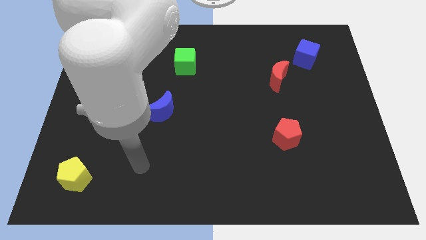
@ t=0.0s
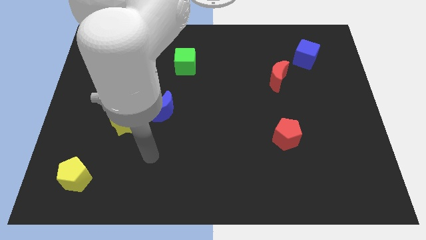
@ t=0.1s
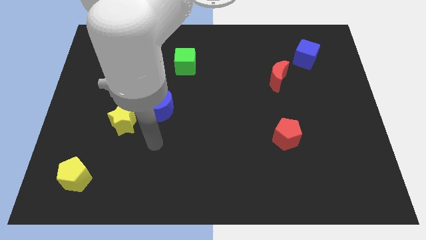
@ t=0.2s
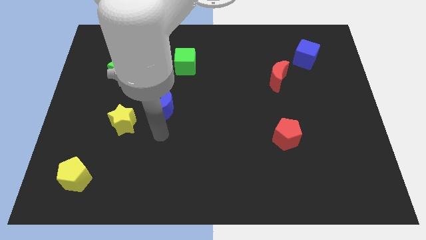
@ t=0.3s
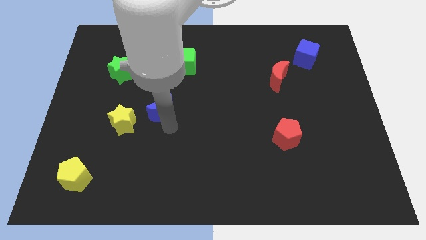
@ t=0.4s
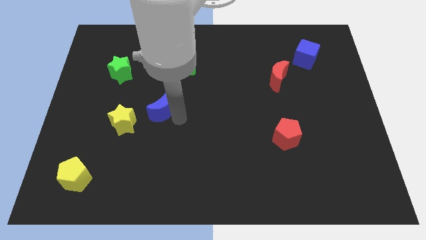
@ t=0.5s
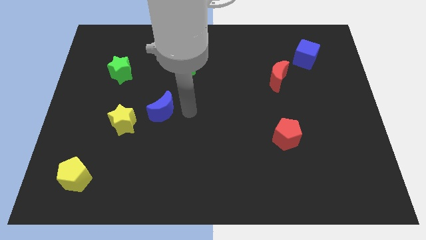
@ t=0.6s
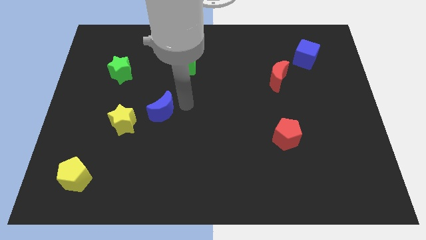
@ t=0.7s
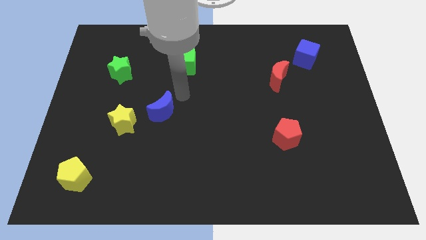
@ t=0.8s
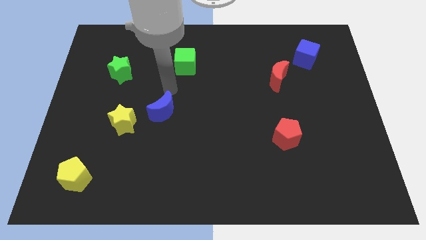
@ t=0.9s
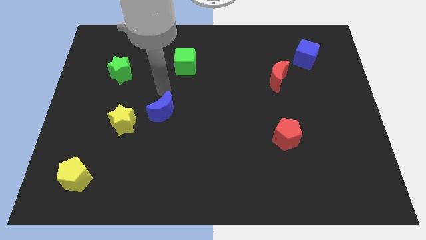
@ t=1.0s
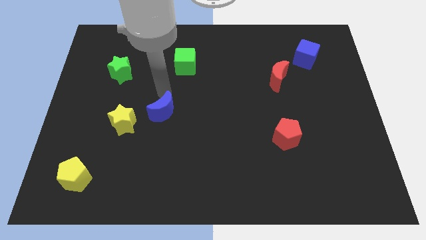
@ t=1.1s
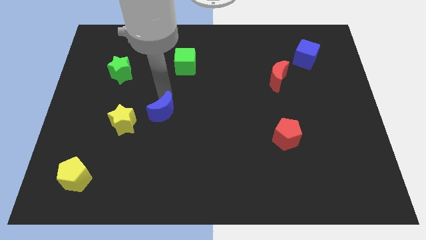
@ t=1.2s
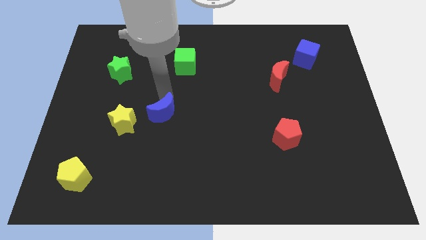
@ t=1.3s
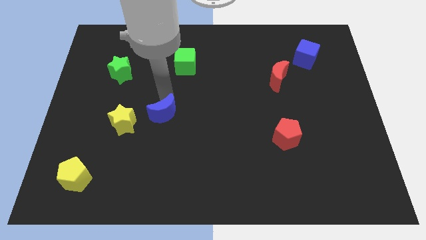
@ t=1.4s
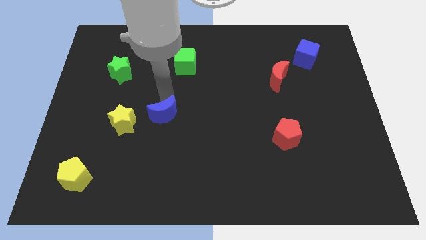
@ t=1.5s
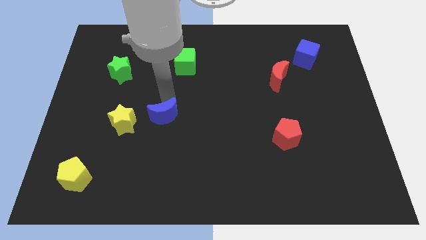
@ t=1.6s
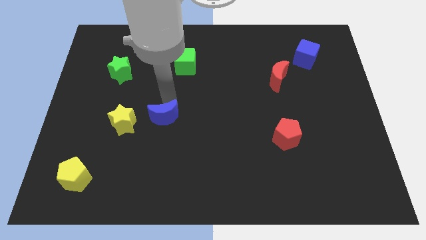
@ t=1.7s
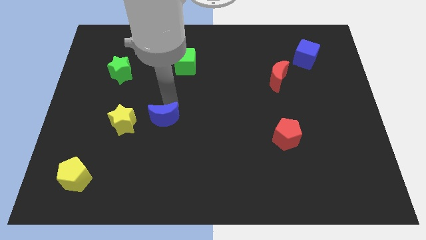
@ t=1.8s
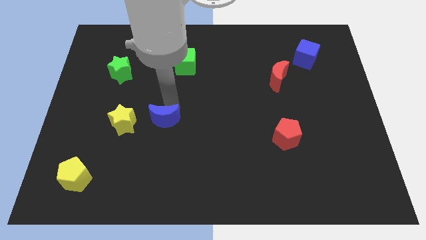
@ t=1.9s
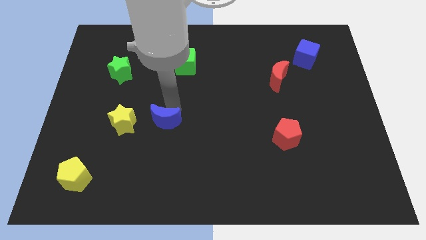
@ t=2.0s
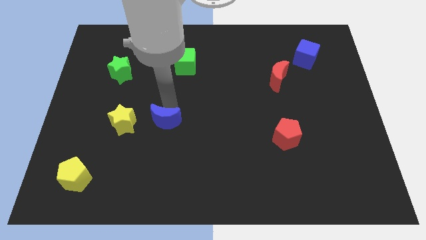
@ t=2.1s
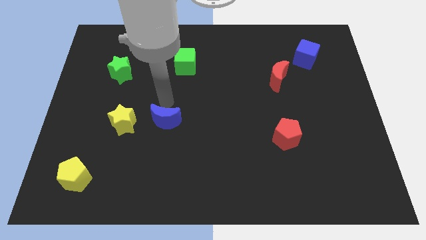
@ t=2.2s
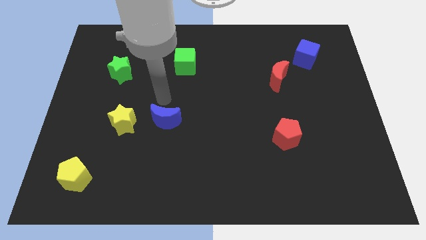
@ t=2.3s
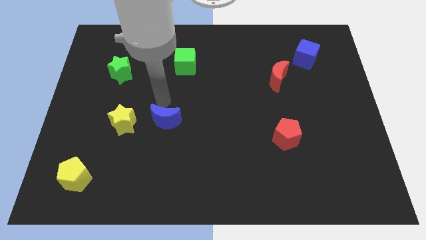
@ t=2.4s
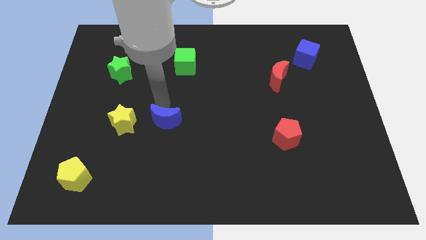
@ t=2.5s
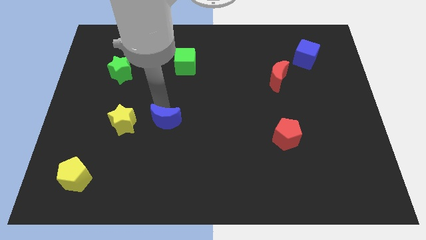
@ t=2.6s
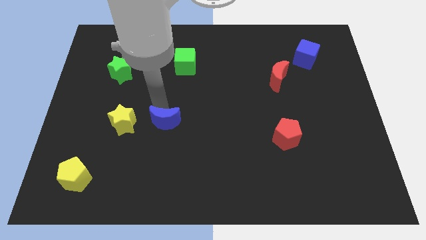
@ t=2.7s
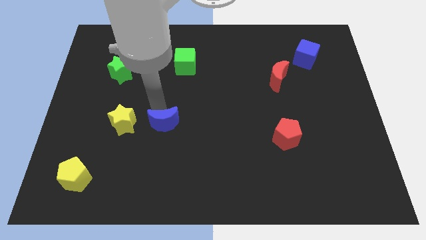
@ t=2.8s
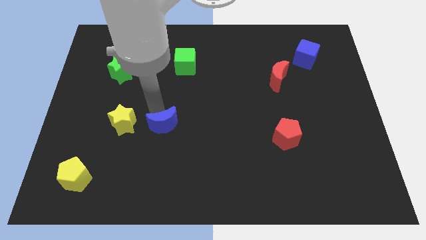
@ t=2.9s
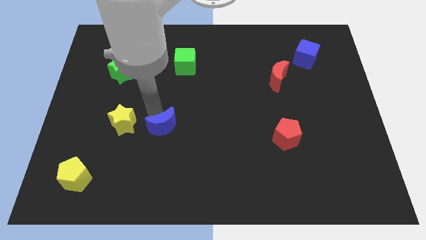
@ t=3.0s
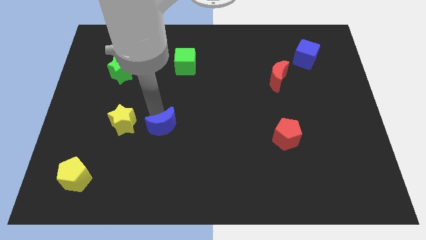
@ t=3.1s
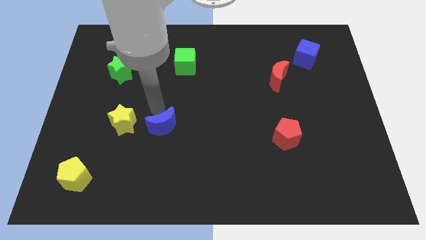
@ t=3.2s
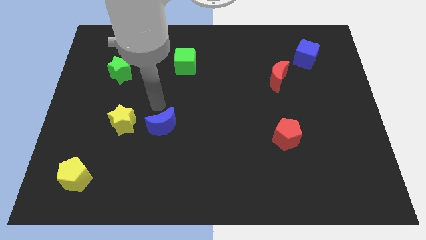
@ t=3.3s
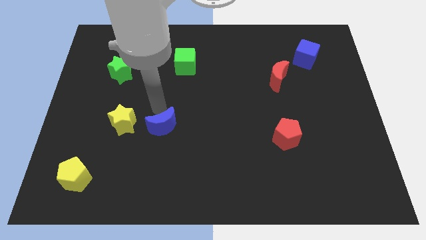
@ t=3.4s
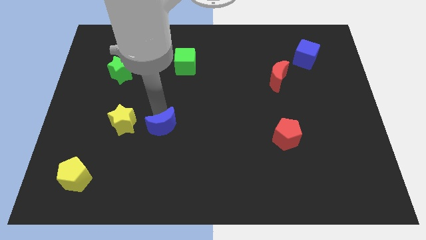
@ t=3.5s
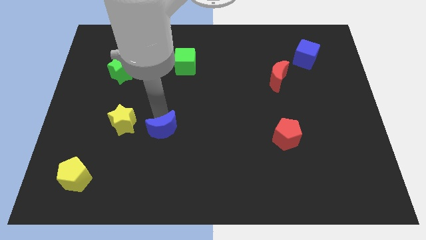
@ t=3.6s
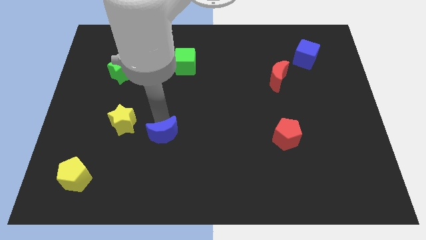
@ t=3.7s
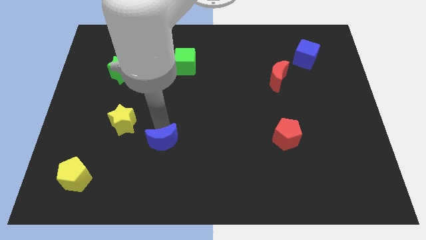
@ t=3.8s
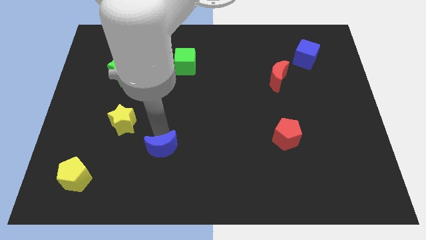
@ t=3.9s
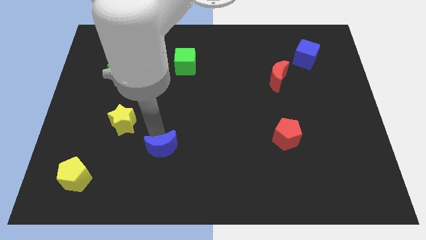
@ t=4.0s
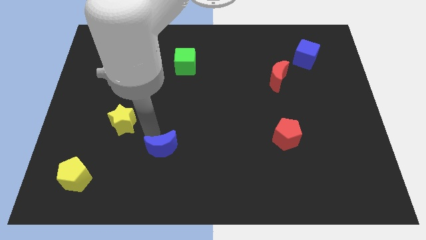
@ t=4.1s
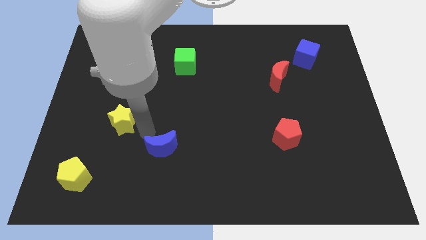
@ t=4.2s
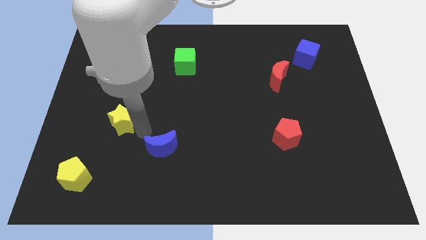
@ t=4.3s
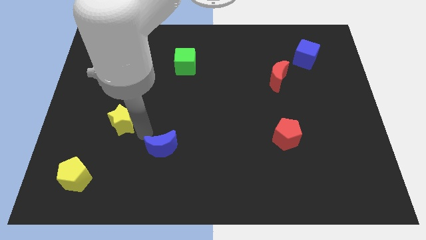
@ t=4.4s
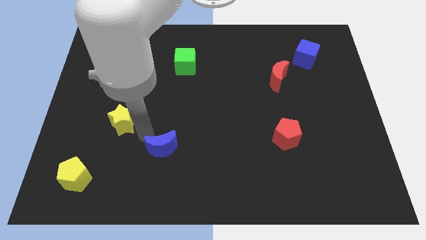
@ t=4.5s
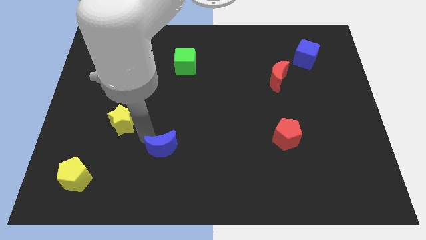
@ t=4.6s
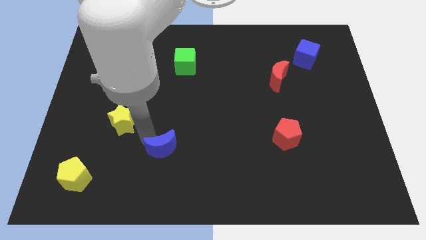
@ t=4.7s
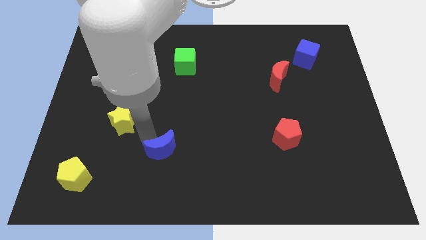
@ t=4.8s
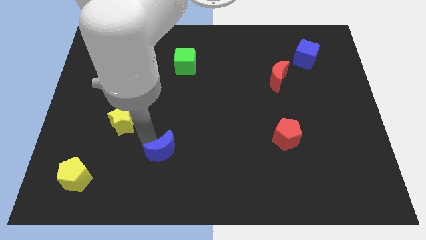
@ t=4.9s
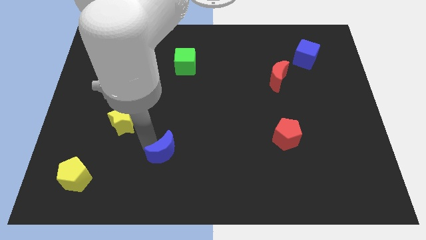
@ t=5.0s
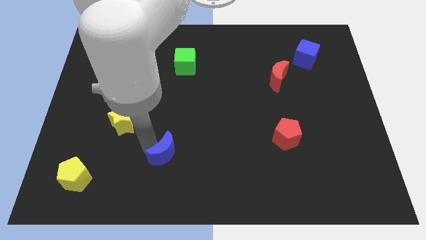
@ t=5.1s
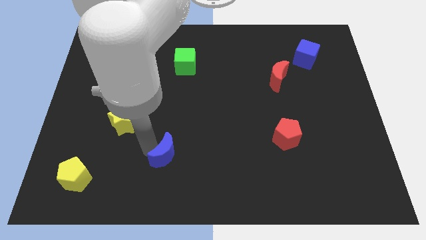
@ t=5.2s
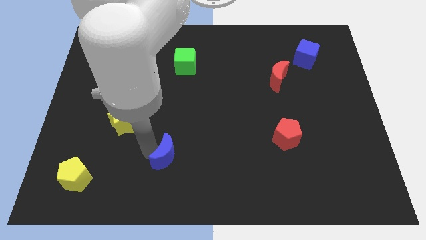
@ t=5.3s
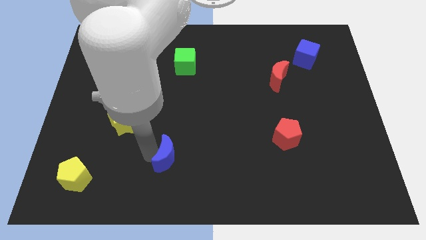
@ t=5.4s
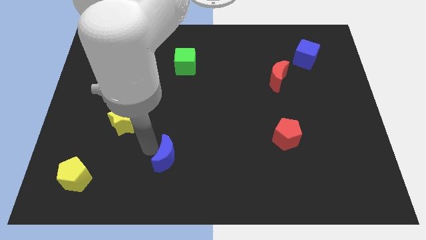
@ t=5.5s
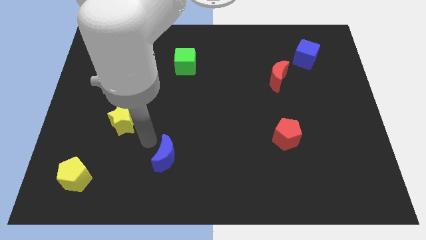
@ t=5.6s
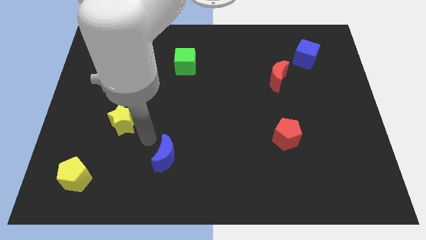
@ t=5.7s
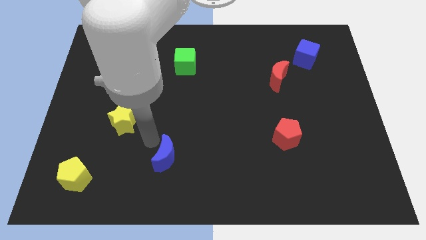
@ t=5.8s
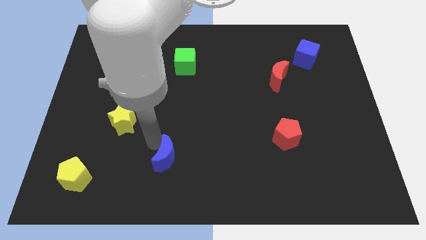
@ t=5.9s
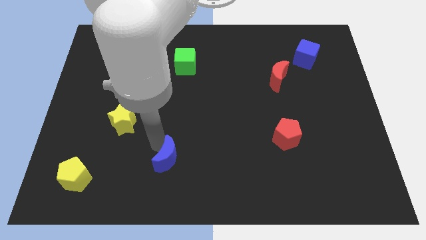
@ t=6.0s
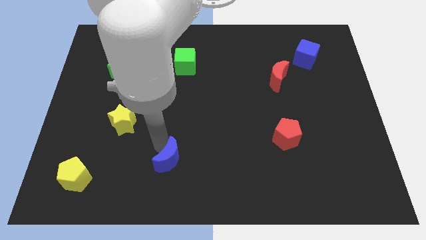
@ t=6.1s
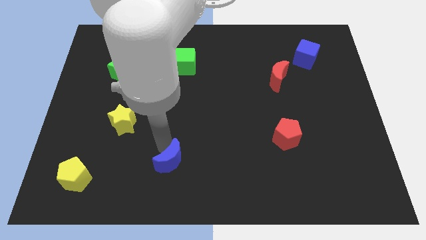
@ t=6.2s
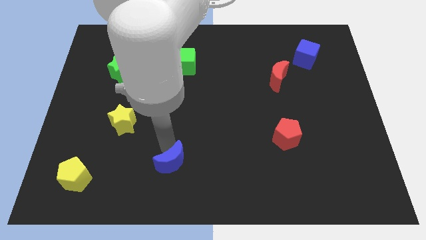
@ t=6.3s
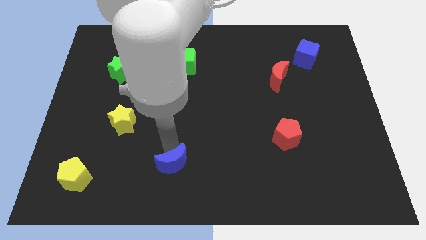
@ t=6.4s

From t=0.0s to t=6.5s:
put the blue moon to the bottom side

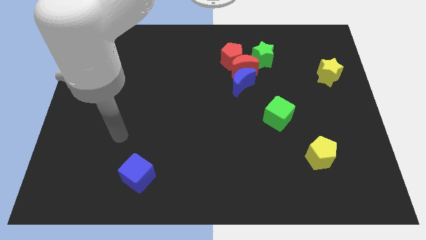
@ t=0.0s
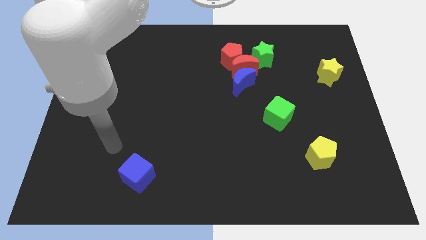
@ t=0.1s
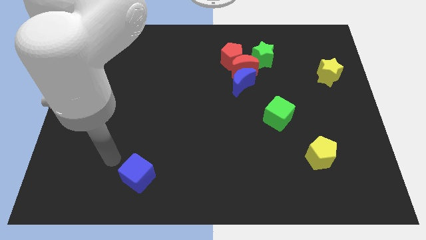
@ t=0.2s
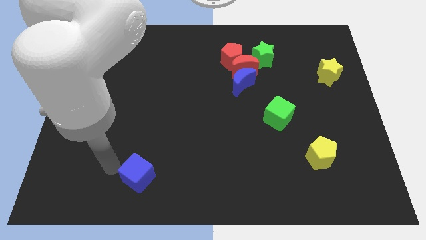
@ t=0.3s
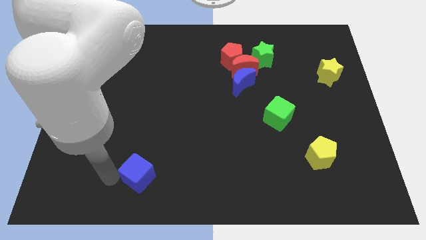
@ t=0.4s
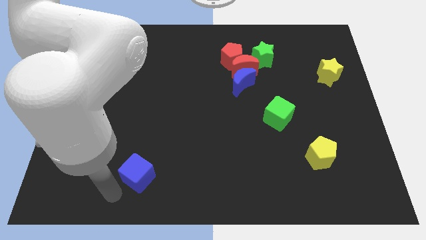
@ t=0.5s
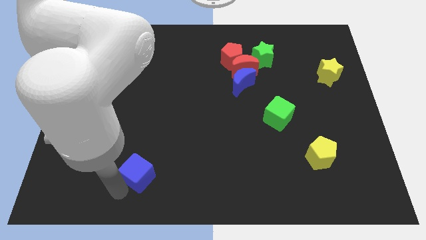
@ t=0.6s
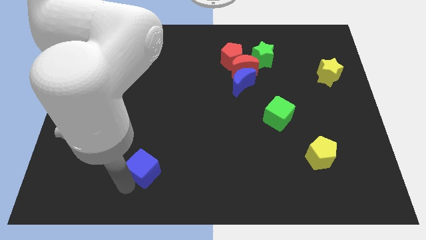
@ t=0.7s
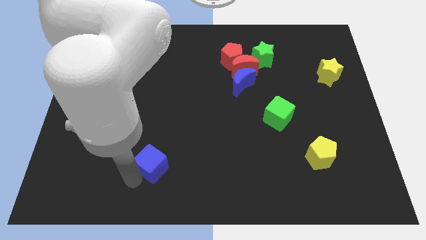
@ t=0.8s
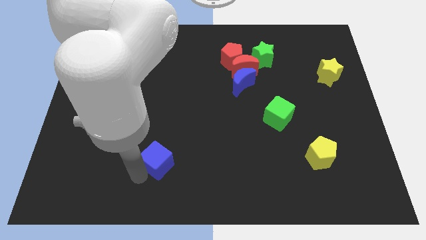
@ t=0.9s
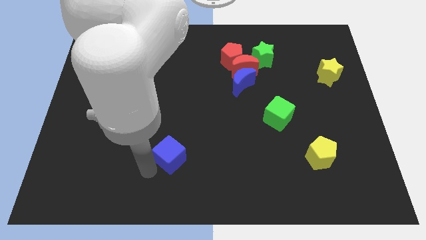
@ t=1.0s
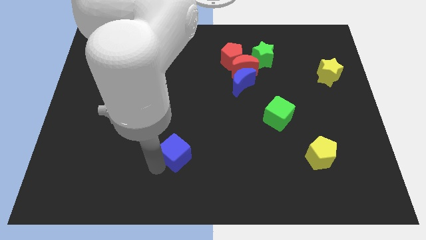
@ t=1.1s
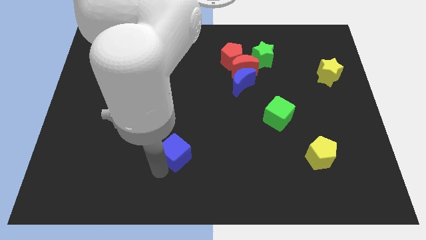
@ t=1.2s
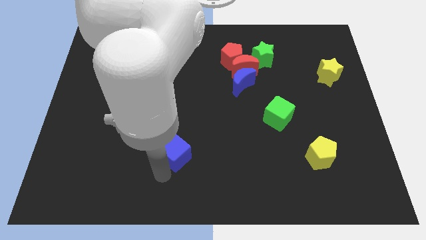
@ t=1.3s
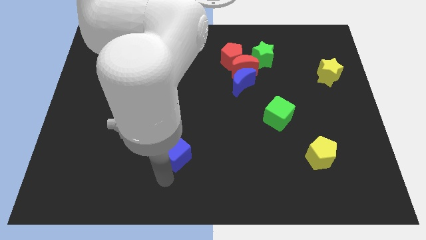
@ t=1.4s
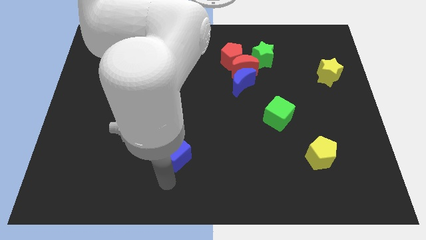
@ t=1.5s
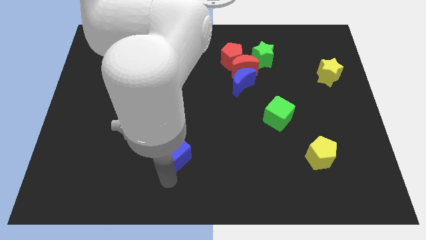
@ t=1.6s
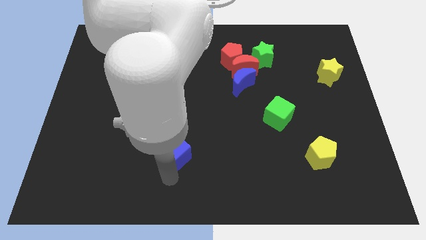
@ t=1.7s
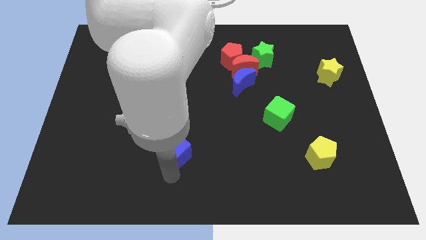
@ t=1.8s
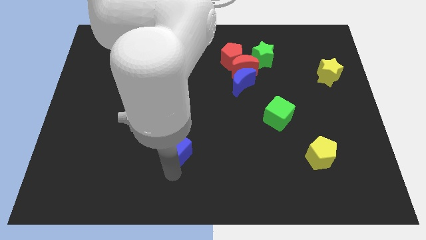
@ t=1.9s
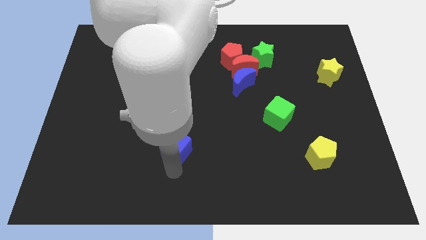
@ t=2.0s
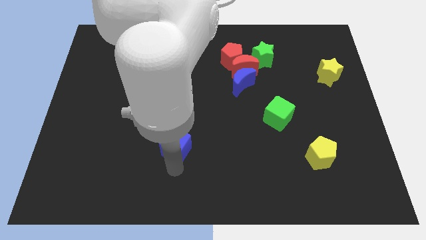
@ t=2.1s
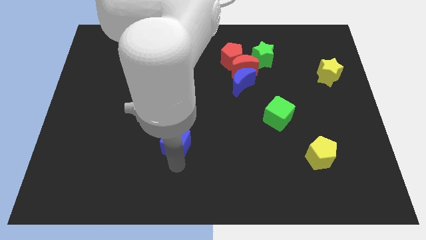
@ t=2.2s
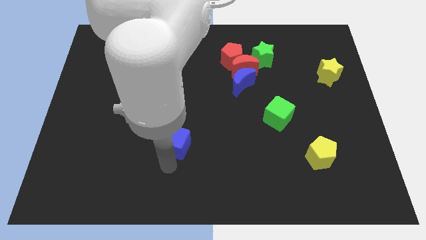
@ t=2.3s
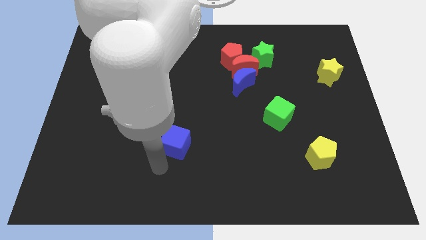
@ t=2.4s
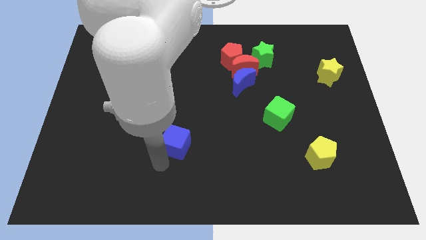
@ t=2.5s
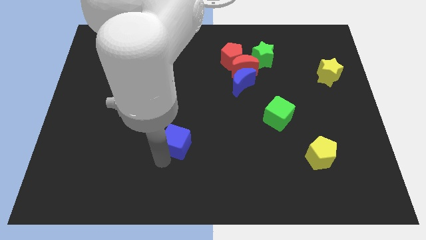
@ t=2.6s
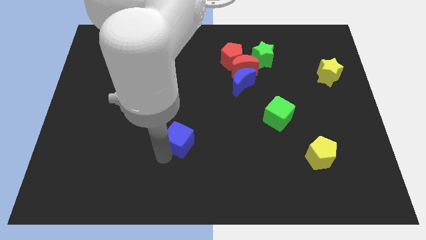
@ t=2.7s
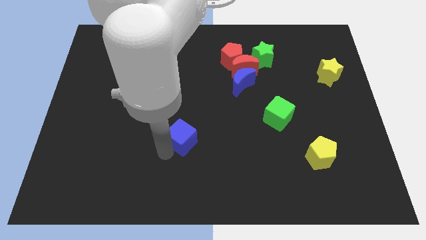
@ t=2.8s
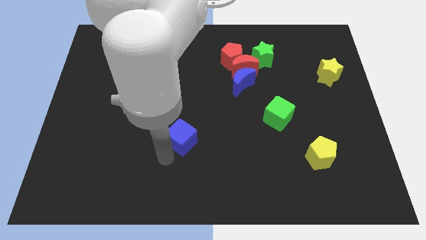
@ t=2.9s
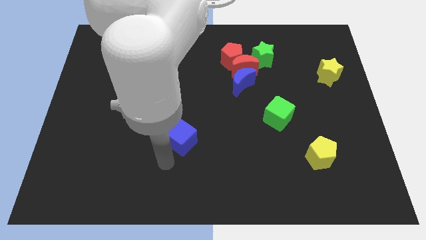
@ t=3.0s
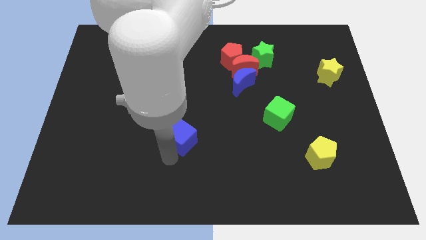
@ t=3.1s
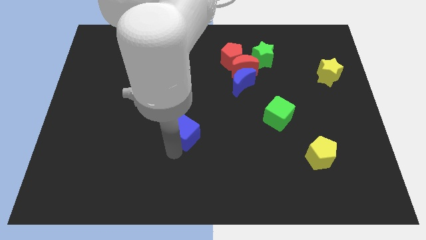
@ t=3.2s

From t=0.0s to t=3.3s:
move the blue cube to the middle
